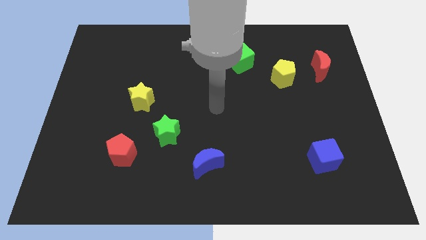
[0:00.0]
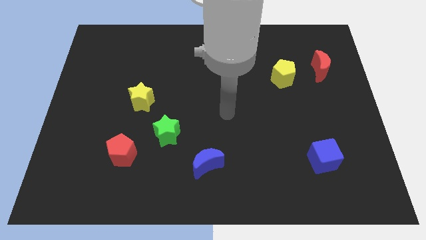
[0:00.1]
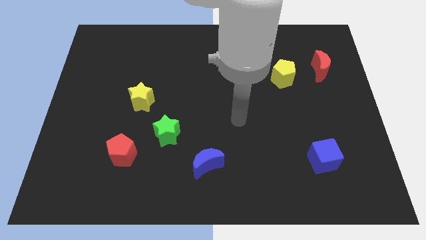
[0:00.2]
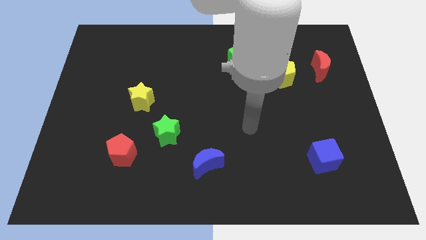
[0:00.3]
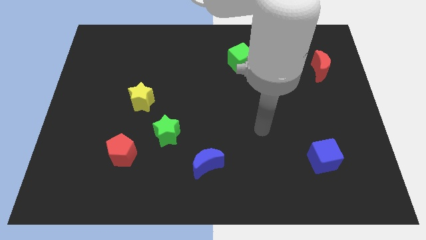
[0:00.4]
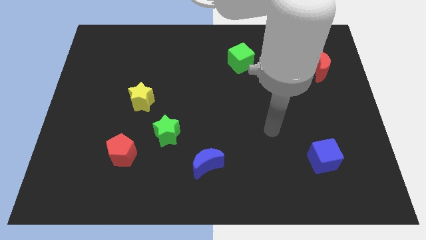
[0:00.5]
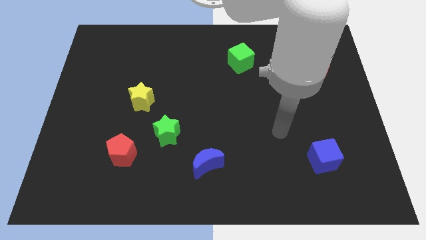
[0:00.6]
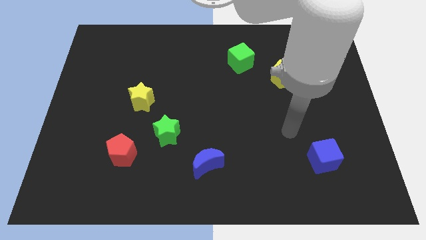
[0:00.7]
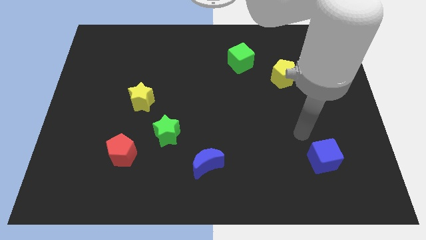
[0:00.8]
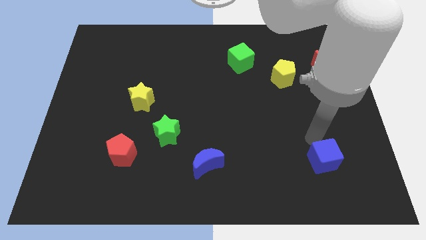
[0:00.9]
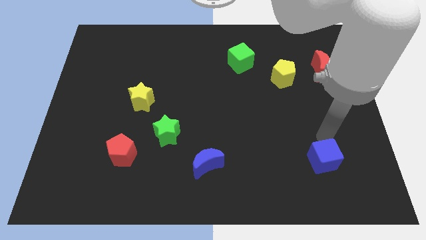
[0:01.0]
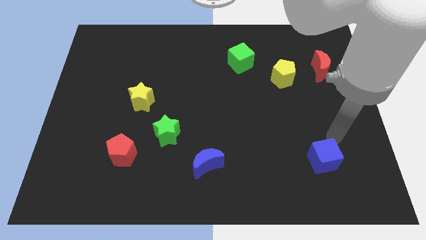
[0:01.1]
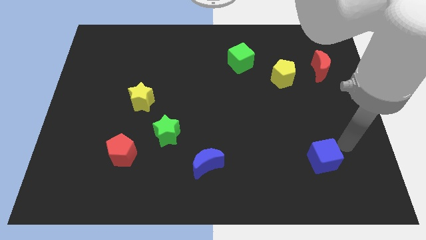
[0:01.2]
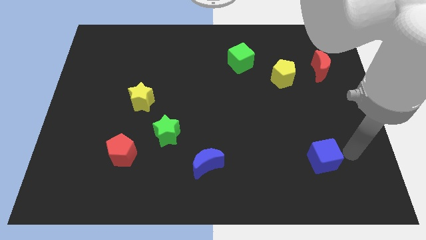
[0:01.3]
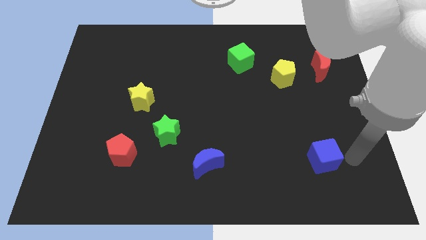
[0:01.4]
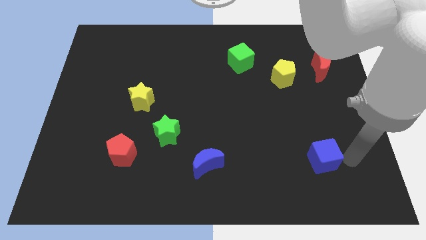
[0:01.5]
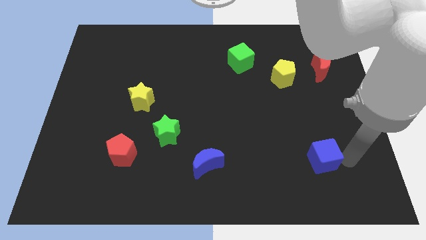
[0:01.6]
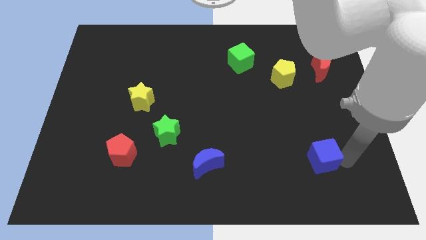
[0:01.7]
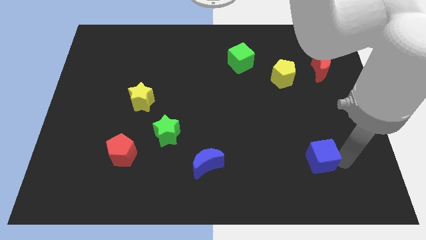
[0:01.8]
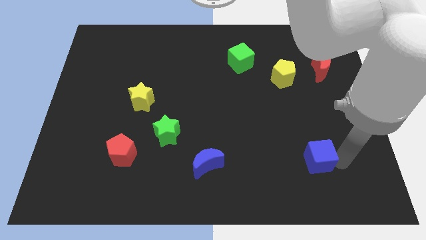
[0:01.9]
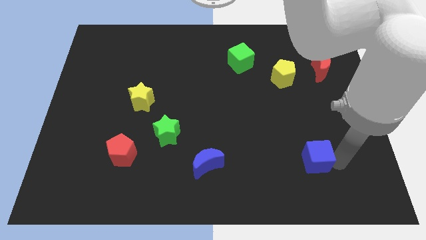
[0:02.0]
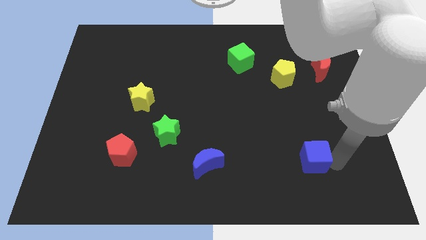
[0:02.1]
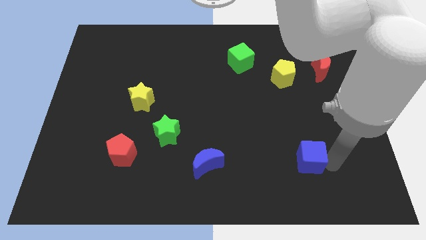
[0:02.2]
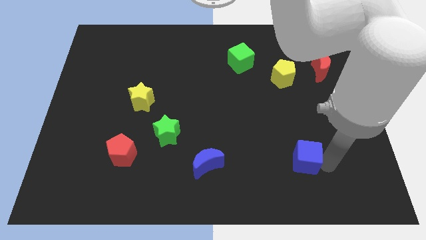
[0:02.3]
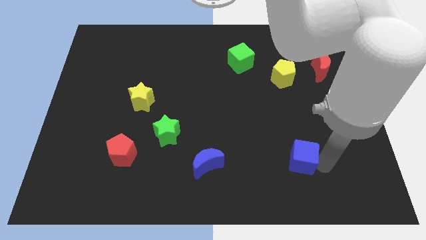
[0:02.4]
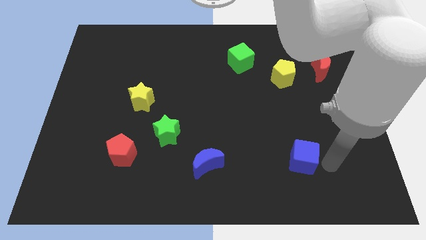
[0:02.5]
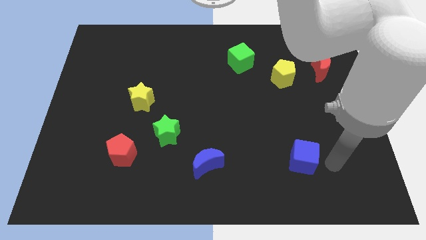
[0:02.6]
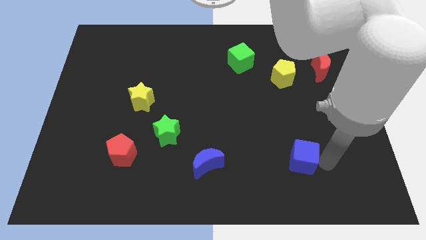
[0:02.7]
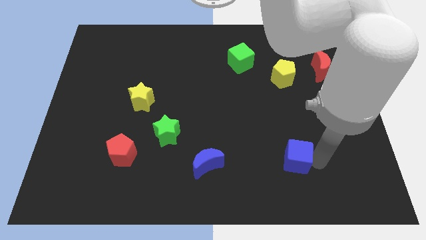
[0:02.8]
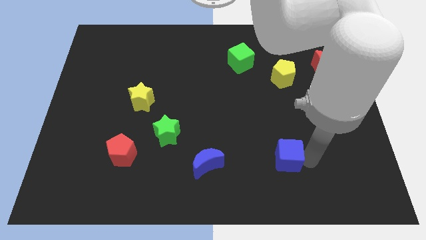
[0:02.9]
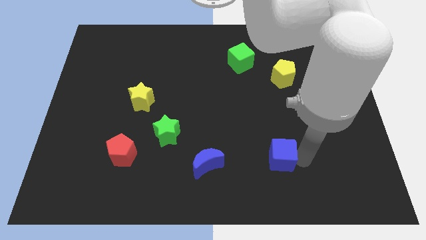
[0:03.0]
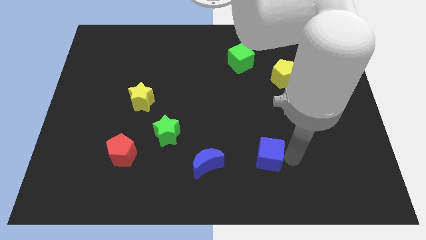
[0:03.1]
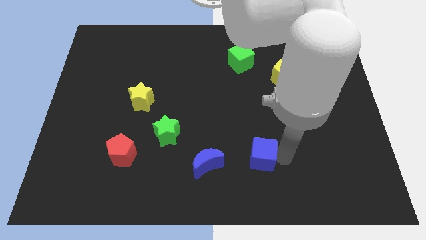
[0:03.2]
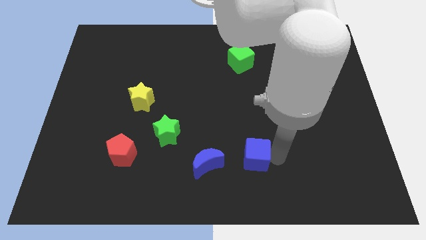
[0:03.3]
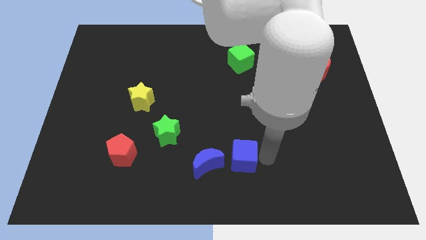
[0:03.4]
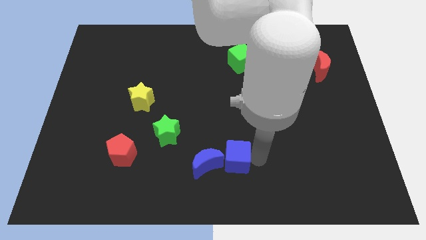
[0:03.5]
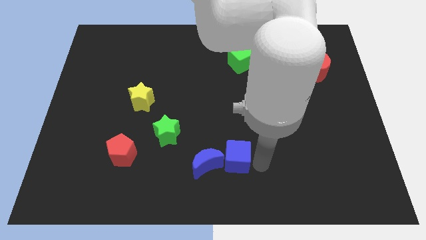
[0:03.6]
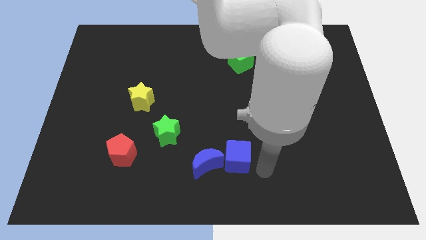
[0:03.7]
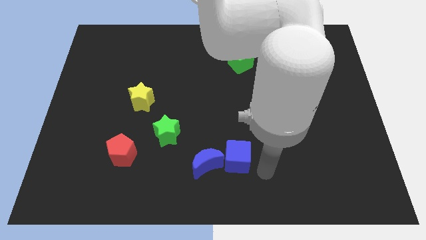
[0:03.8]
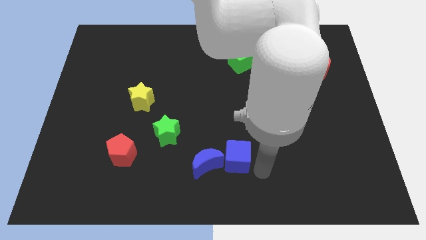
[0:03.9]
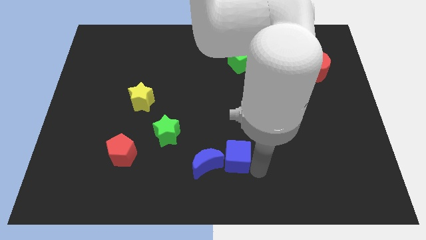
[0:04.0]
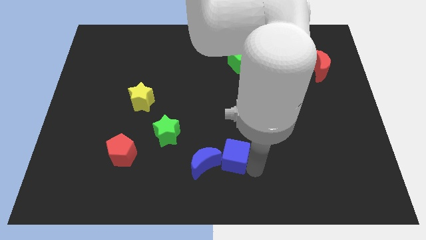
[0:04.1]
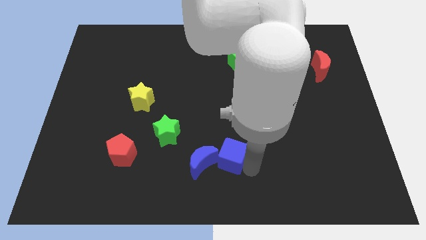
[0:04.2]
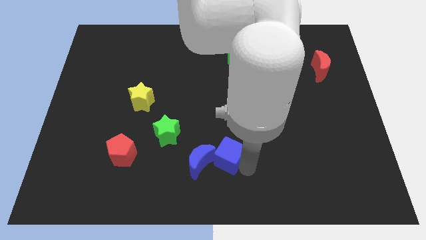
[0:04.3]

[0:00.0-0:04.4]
move the blue cube to the left

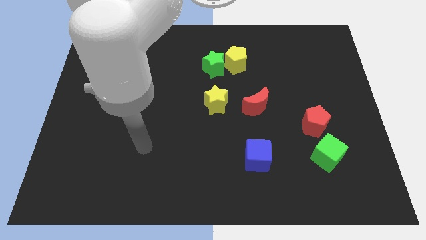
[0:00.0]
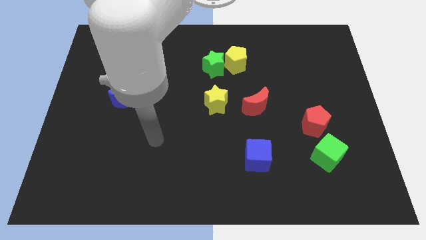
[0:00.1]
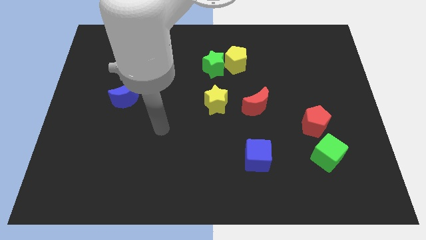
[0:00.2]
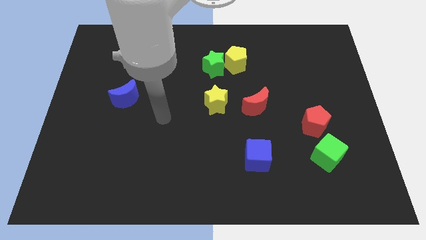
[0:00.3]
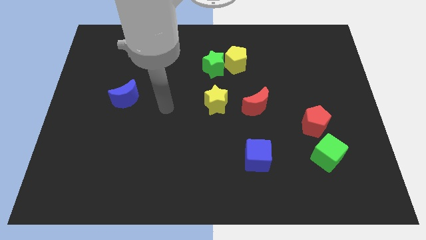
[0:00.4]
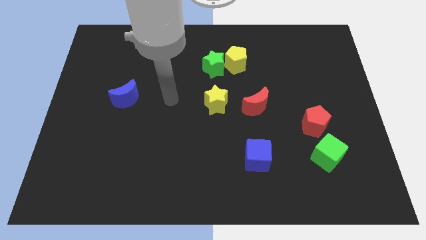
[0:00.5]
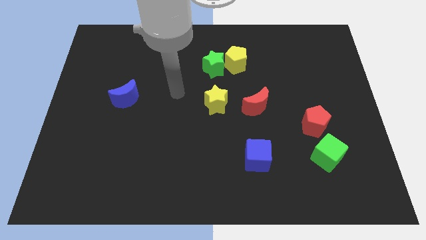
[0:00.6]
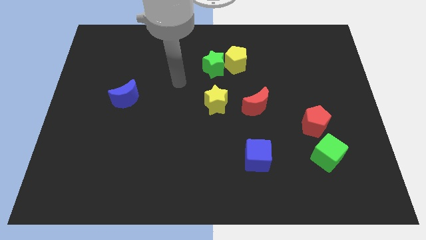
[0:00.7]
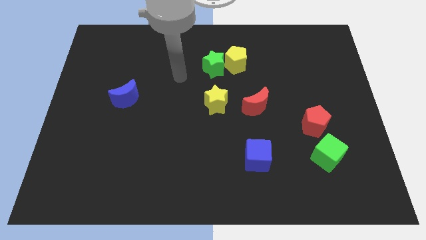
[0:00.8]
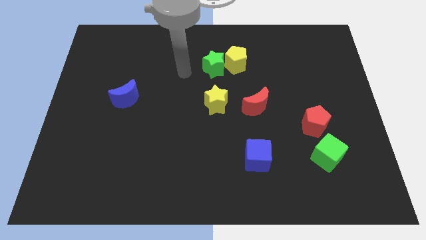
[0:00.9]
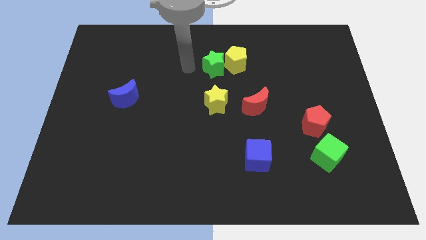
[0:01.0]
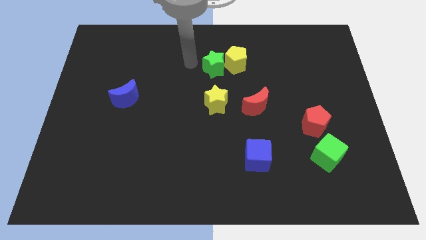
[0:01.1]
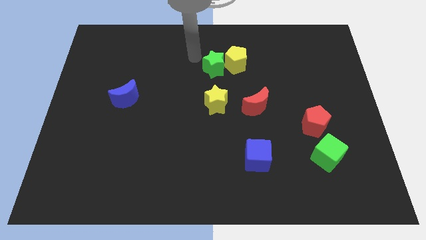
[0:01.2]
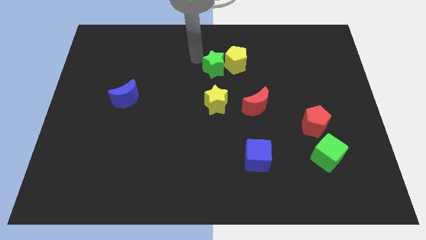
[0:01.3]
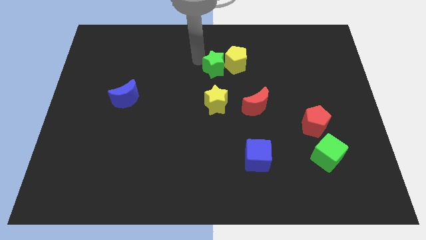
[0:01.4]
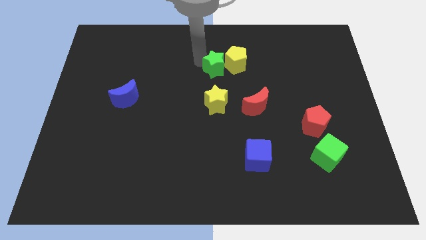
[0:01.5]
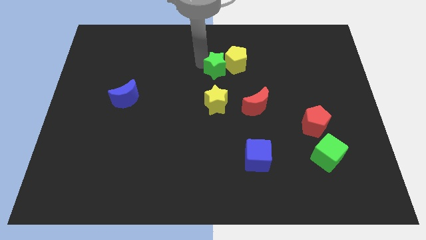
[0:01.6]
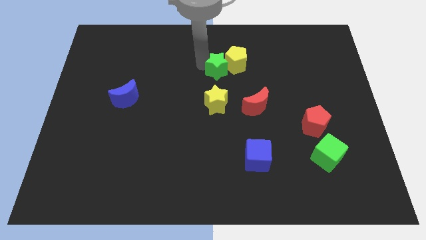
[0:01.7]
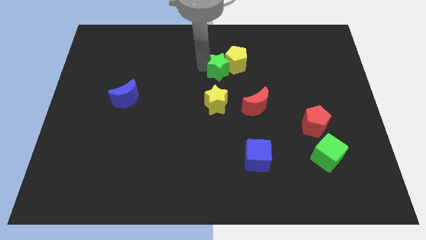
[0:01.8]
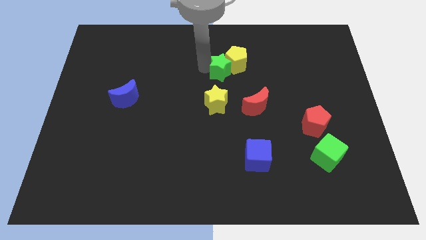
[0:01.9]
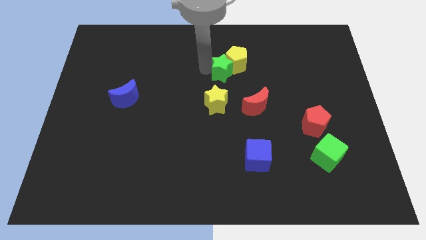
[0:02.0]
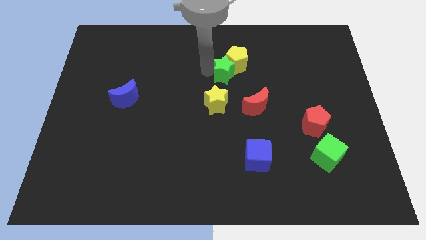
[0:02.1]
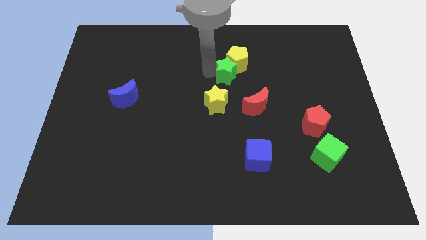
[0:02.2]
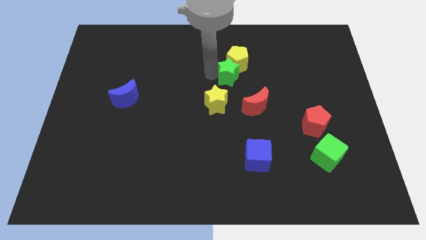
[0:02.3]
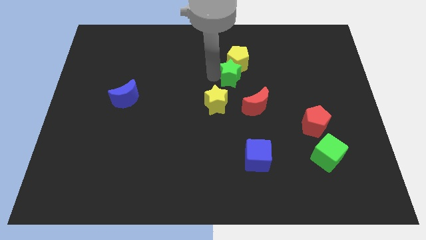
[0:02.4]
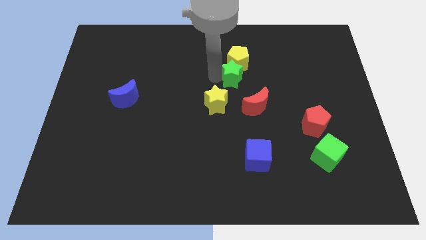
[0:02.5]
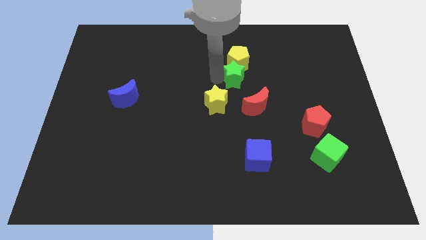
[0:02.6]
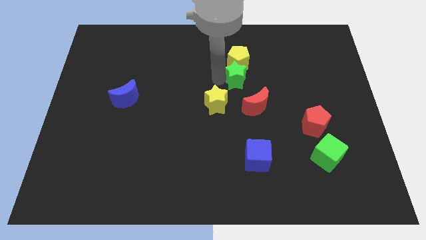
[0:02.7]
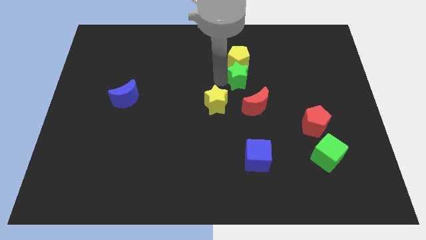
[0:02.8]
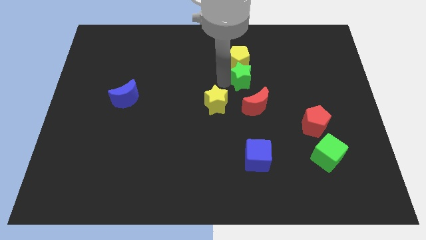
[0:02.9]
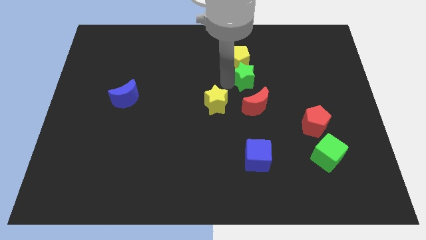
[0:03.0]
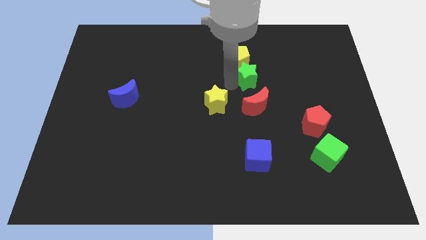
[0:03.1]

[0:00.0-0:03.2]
slide the green star a little bit to the right

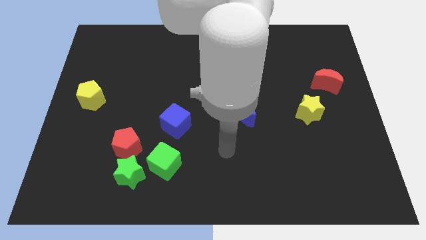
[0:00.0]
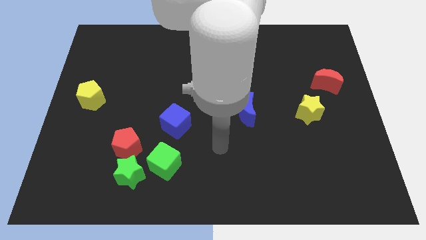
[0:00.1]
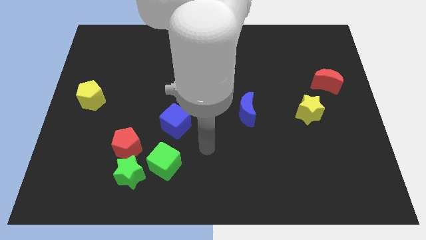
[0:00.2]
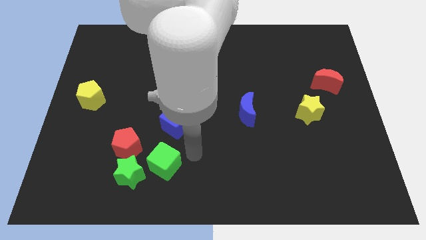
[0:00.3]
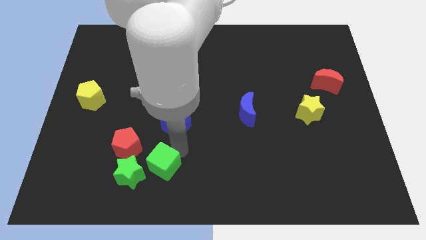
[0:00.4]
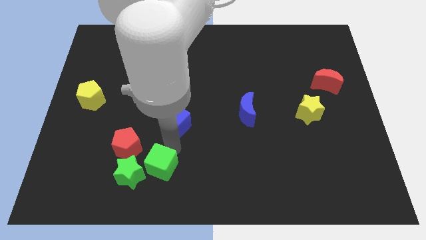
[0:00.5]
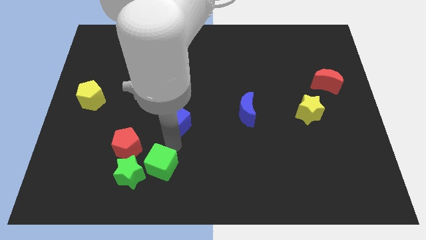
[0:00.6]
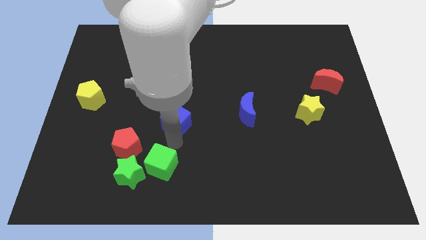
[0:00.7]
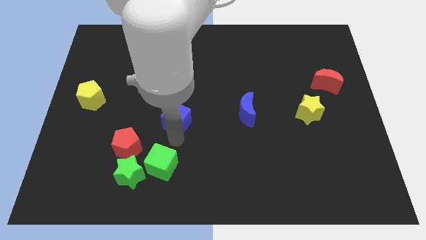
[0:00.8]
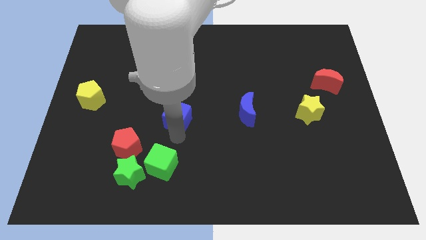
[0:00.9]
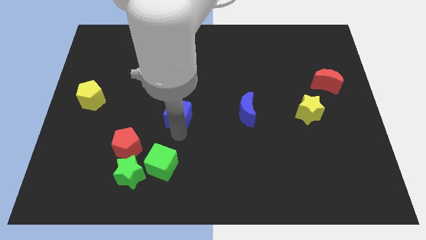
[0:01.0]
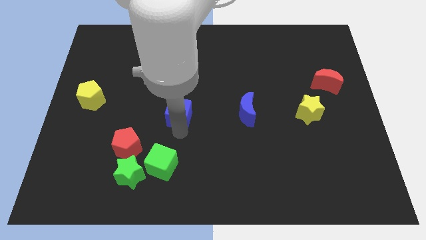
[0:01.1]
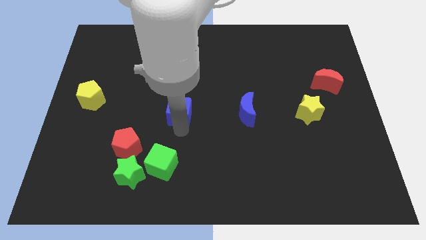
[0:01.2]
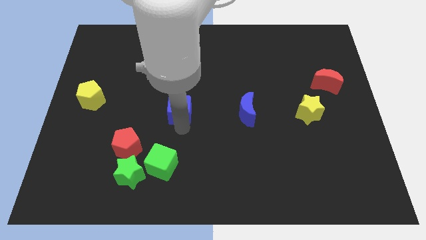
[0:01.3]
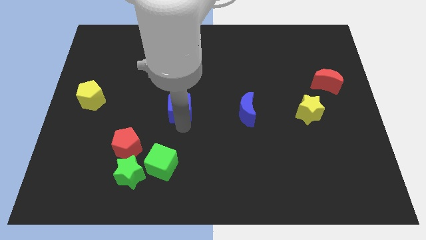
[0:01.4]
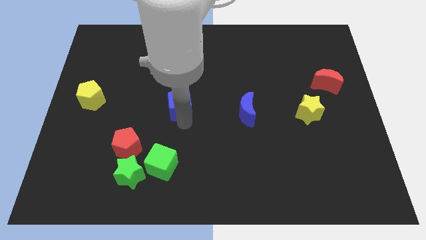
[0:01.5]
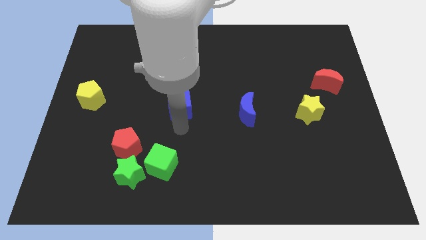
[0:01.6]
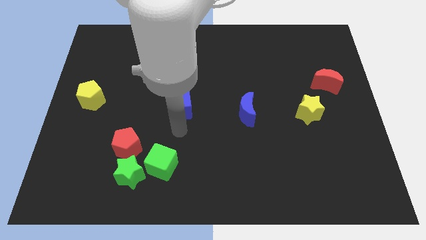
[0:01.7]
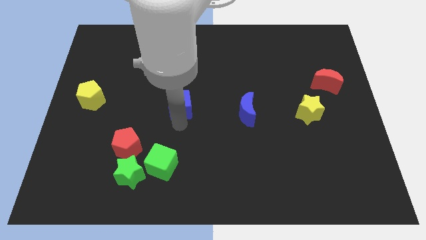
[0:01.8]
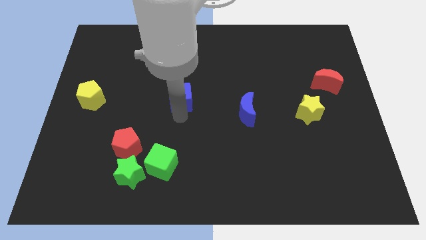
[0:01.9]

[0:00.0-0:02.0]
move the blue cube a little up
